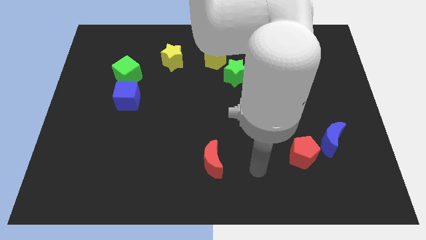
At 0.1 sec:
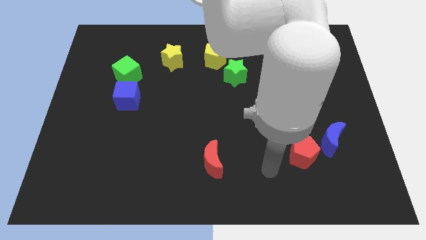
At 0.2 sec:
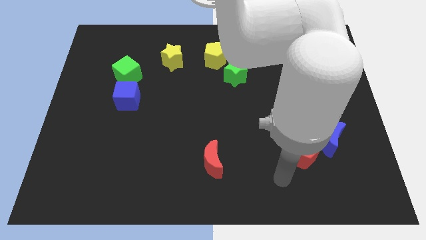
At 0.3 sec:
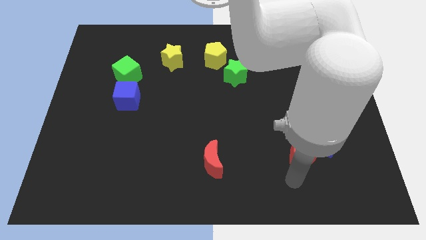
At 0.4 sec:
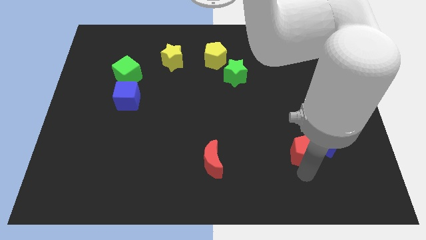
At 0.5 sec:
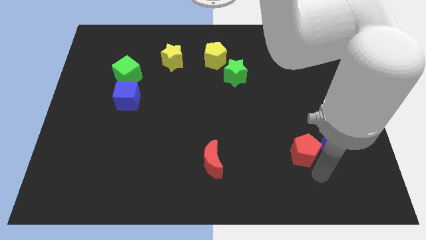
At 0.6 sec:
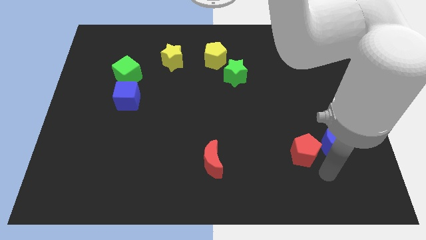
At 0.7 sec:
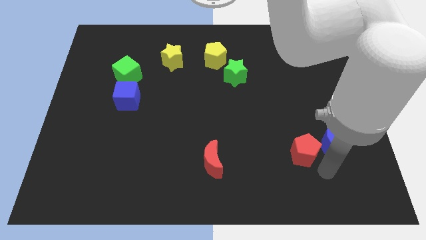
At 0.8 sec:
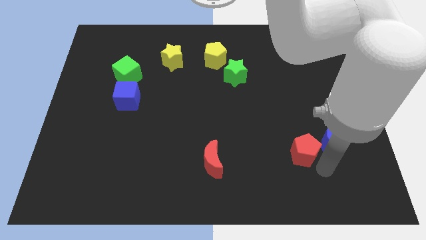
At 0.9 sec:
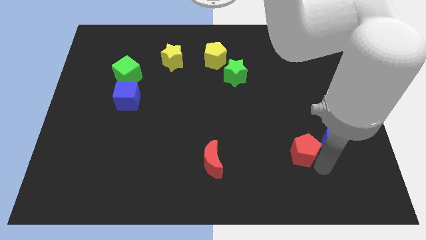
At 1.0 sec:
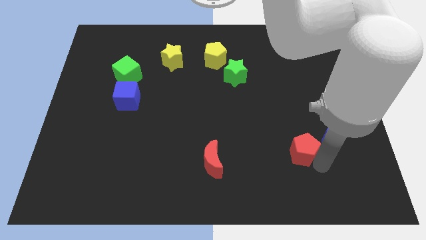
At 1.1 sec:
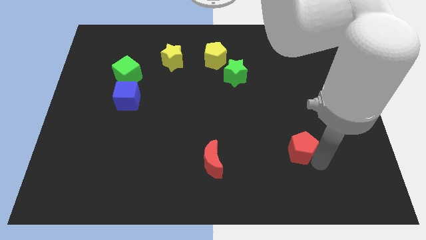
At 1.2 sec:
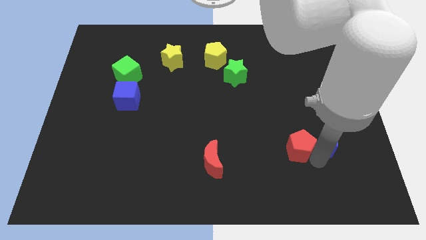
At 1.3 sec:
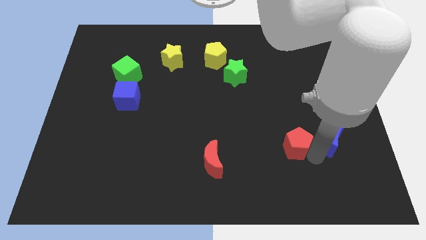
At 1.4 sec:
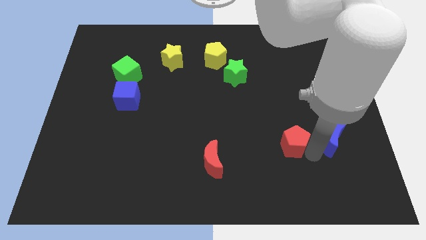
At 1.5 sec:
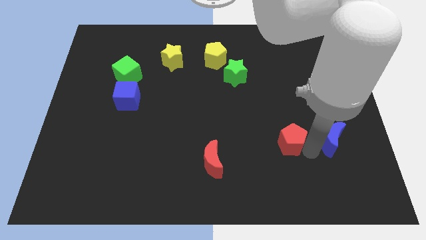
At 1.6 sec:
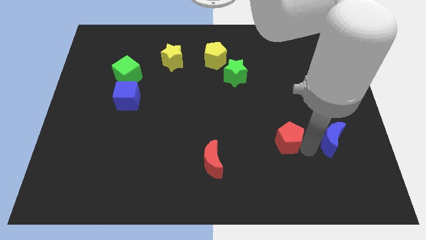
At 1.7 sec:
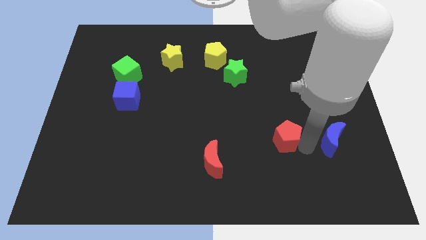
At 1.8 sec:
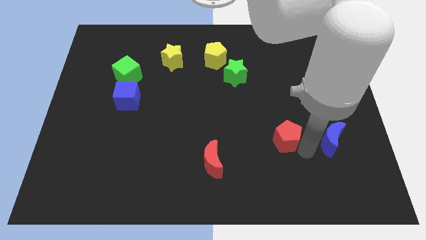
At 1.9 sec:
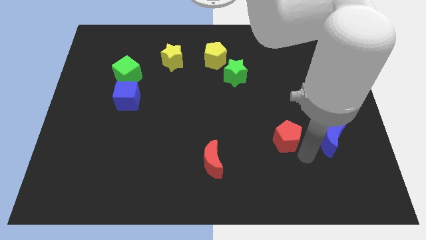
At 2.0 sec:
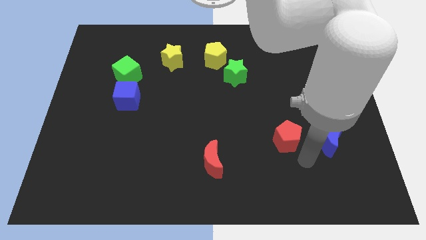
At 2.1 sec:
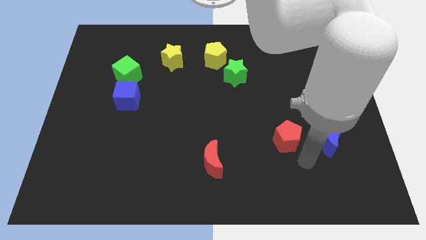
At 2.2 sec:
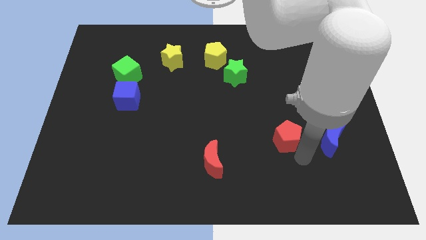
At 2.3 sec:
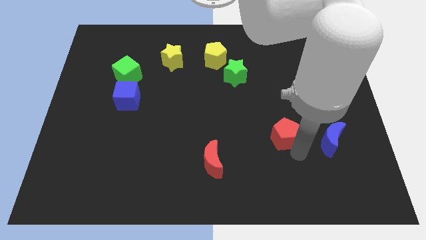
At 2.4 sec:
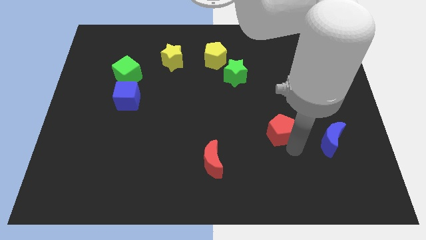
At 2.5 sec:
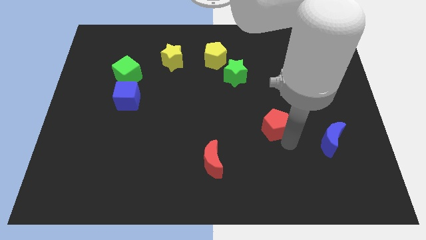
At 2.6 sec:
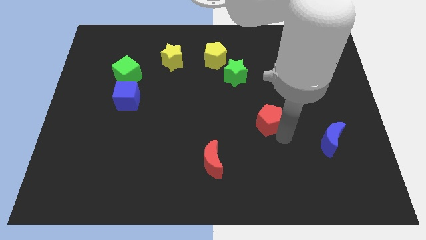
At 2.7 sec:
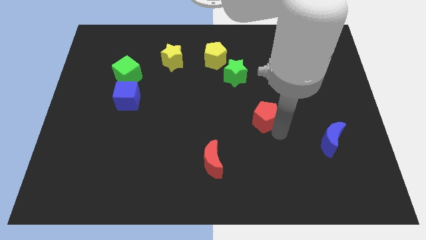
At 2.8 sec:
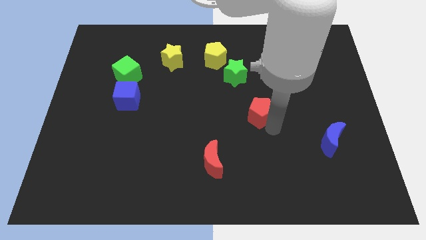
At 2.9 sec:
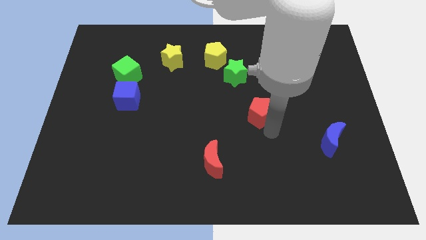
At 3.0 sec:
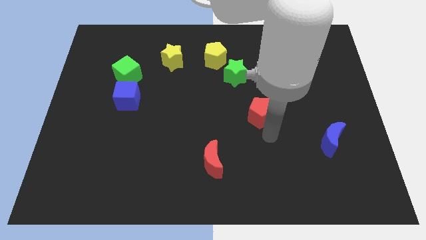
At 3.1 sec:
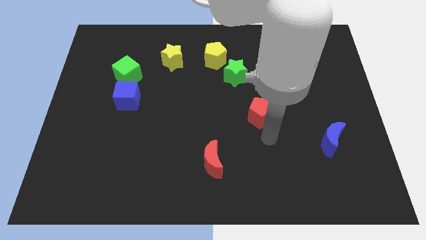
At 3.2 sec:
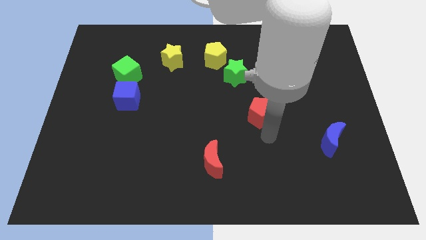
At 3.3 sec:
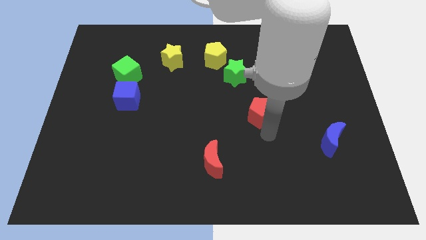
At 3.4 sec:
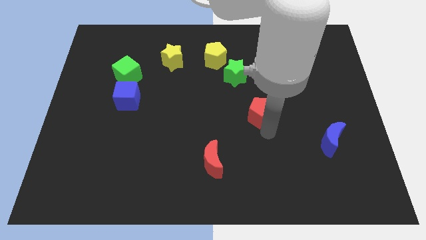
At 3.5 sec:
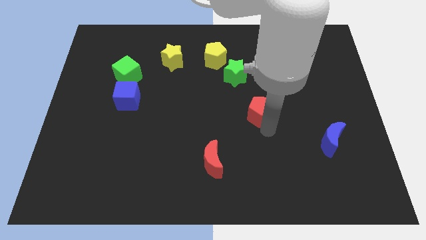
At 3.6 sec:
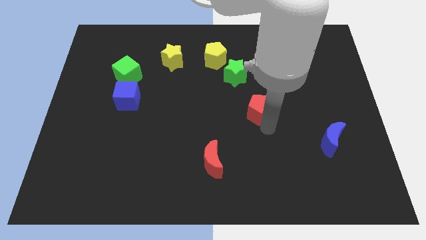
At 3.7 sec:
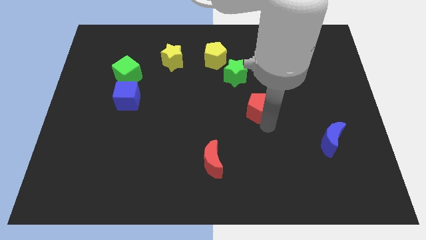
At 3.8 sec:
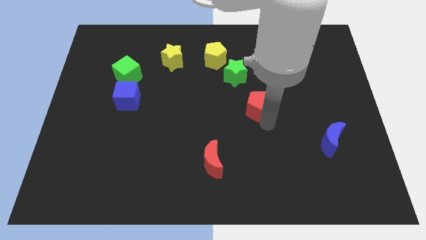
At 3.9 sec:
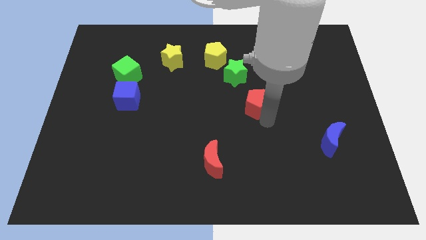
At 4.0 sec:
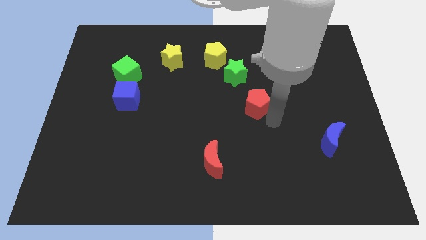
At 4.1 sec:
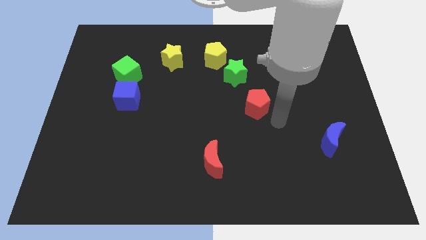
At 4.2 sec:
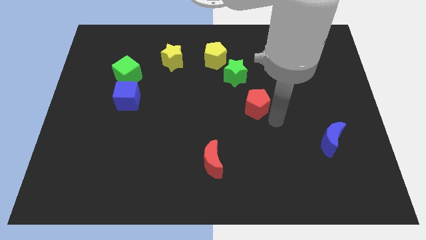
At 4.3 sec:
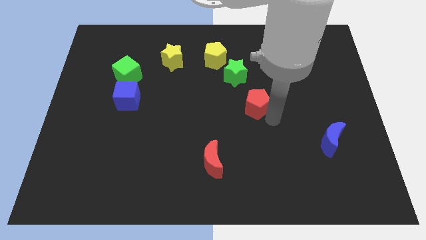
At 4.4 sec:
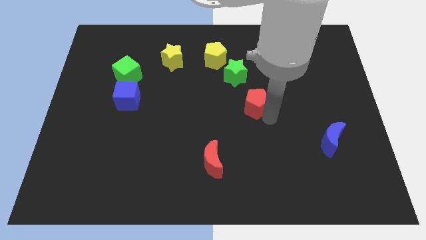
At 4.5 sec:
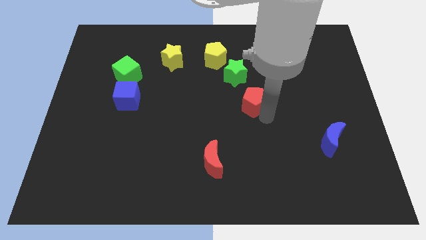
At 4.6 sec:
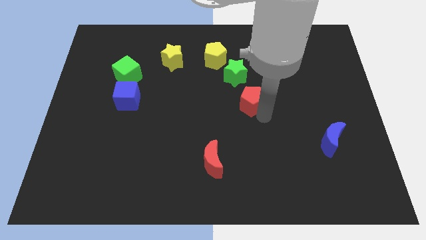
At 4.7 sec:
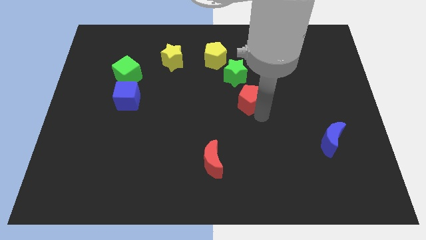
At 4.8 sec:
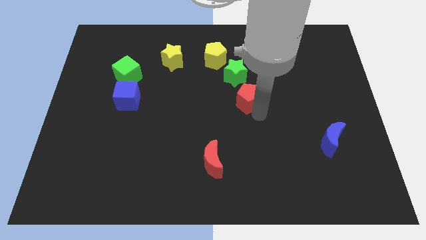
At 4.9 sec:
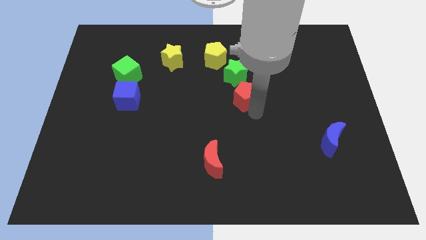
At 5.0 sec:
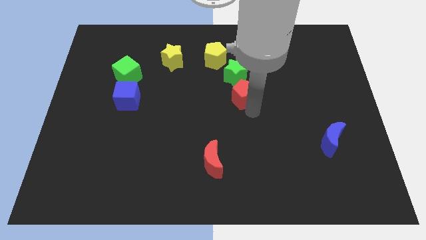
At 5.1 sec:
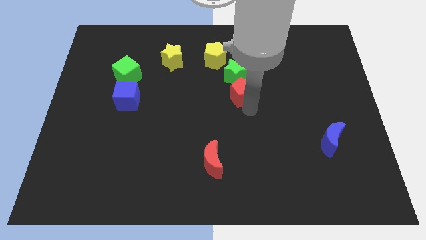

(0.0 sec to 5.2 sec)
move the red pentagon up and then left

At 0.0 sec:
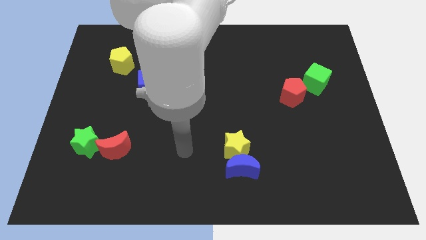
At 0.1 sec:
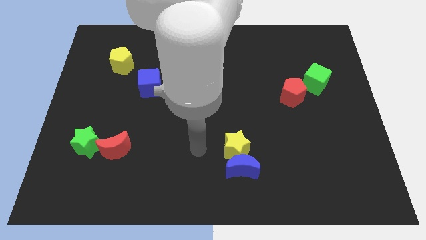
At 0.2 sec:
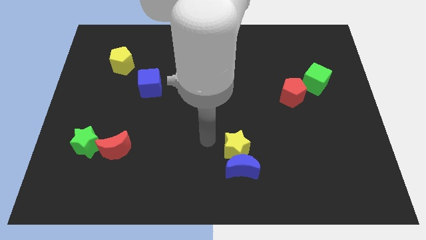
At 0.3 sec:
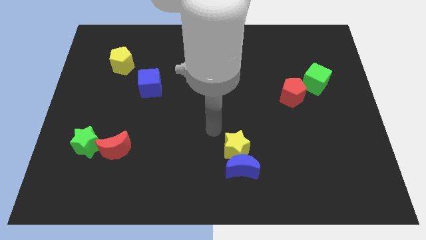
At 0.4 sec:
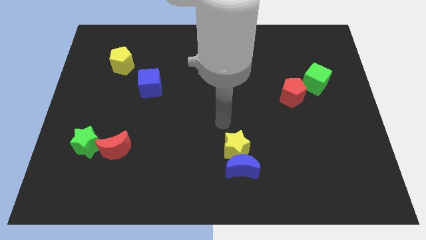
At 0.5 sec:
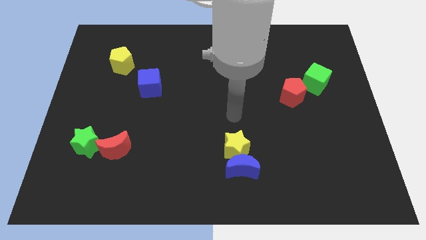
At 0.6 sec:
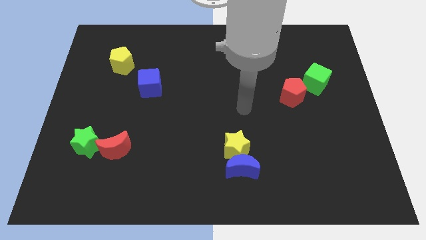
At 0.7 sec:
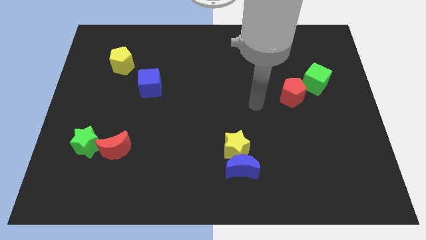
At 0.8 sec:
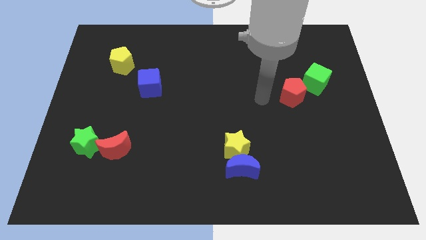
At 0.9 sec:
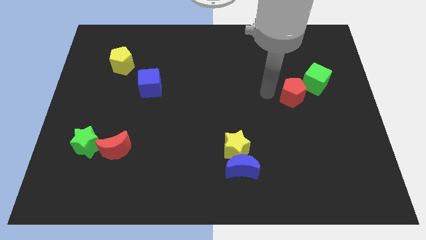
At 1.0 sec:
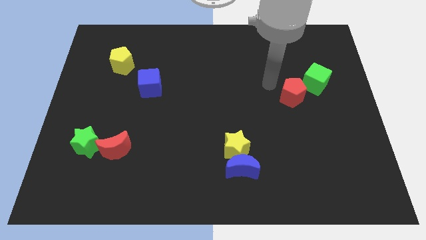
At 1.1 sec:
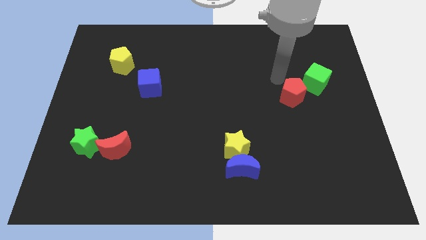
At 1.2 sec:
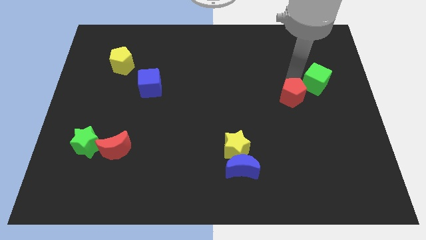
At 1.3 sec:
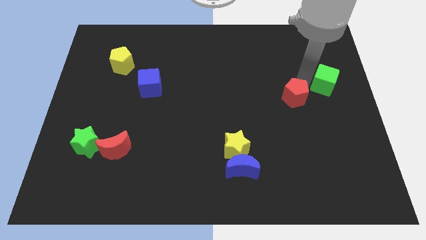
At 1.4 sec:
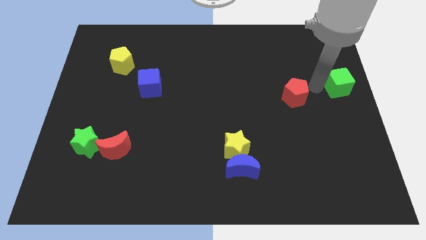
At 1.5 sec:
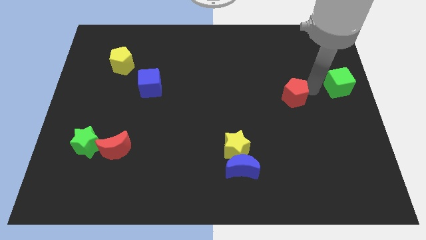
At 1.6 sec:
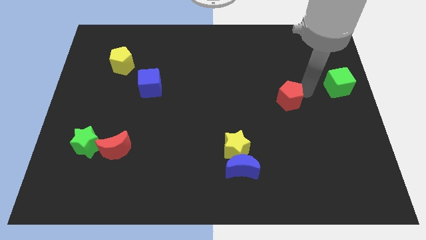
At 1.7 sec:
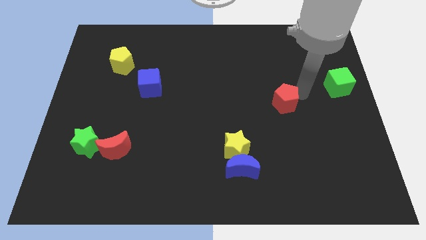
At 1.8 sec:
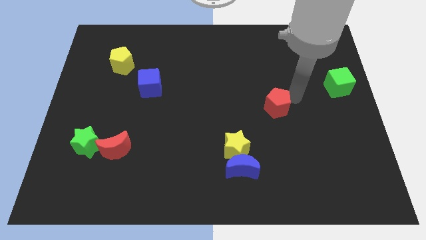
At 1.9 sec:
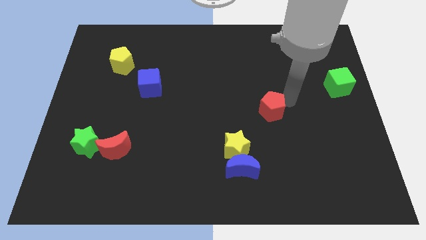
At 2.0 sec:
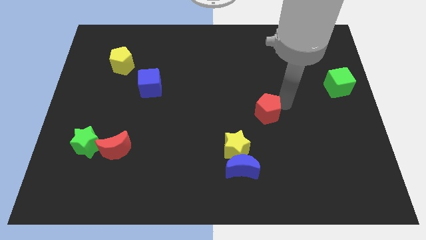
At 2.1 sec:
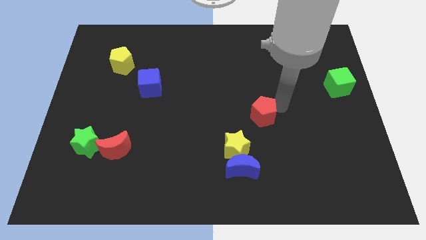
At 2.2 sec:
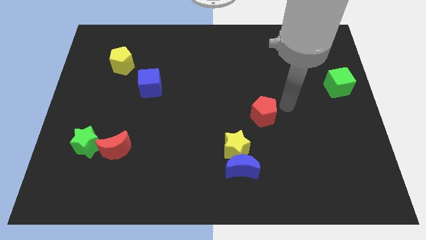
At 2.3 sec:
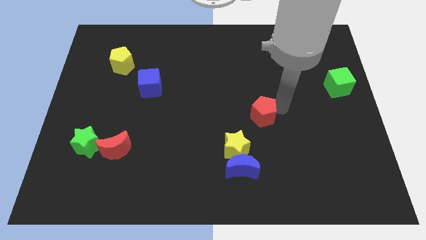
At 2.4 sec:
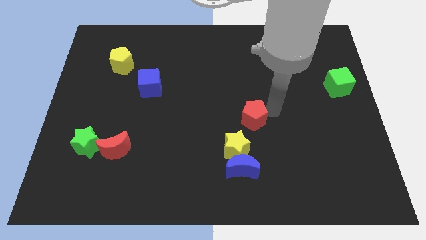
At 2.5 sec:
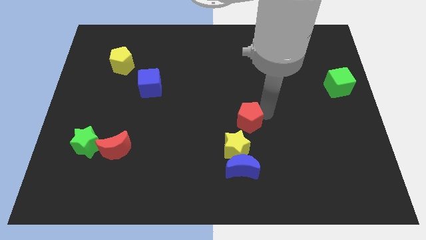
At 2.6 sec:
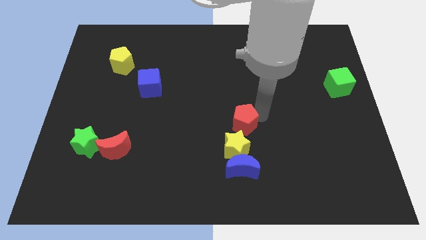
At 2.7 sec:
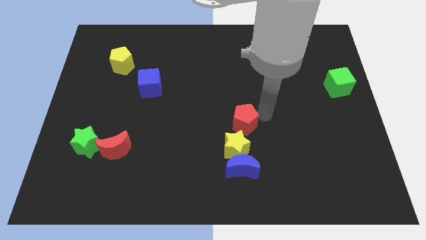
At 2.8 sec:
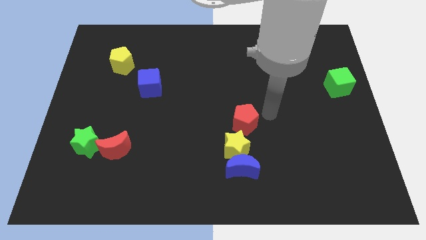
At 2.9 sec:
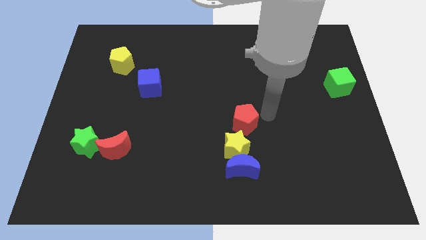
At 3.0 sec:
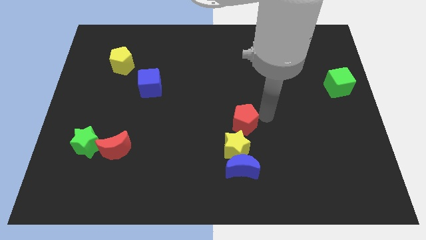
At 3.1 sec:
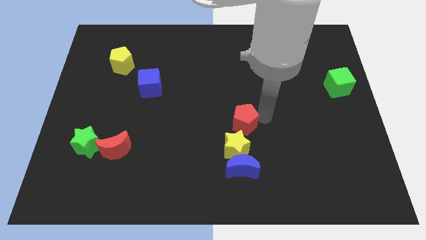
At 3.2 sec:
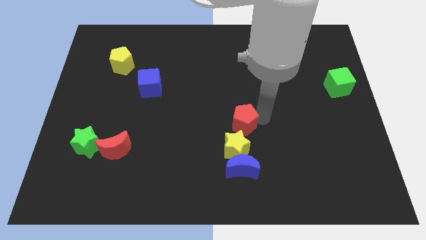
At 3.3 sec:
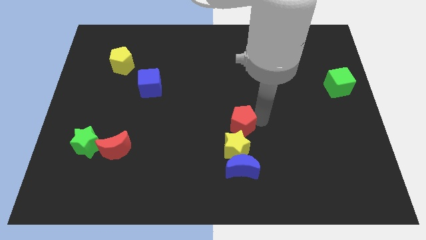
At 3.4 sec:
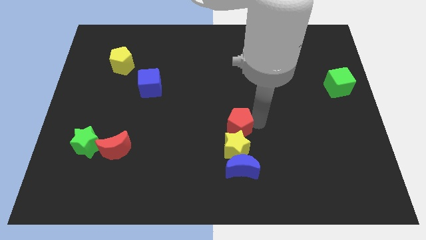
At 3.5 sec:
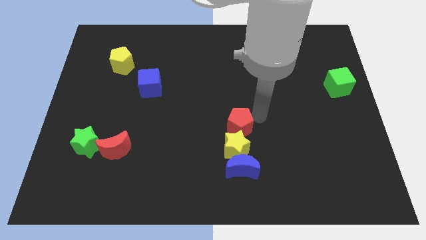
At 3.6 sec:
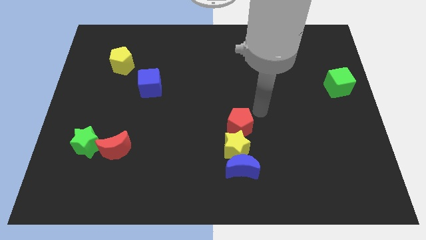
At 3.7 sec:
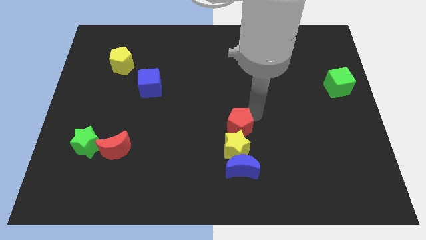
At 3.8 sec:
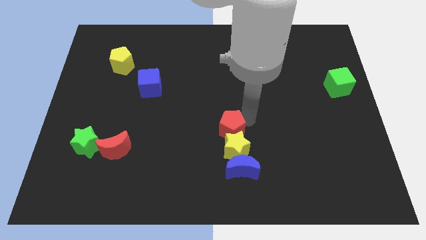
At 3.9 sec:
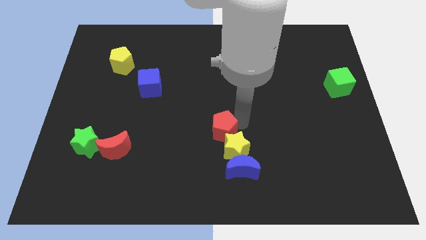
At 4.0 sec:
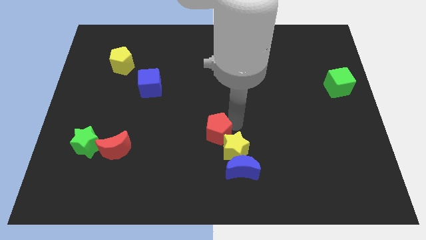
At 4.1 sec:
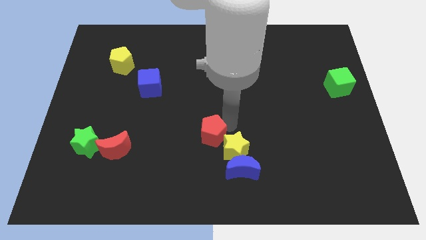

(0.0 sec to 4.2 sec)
push the red pentagon down and left diagonally
